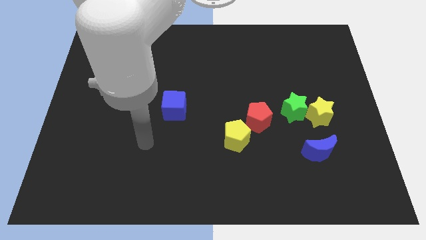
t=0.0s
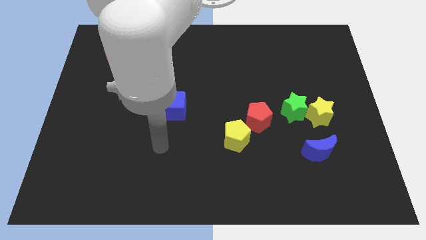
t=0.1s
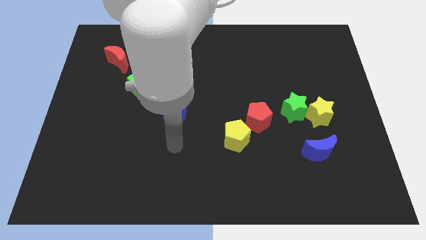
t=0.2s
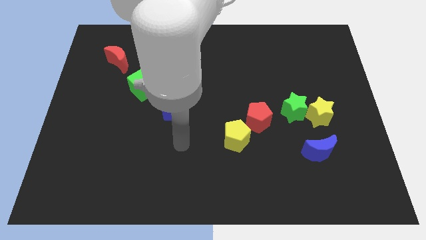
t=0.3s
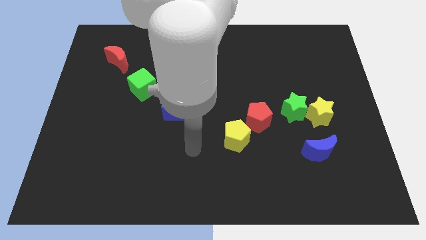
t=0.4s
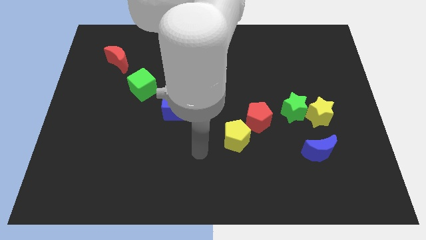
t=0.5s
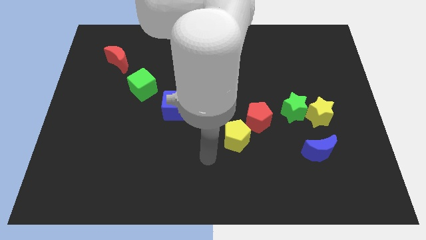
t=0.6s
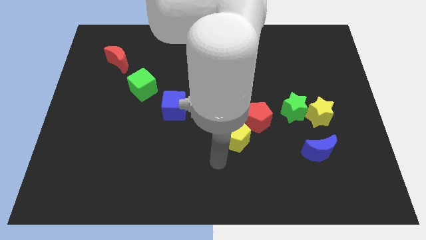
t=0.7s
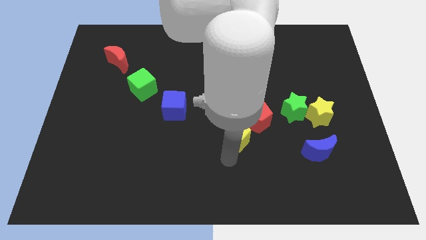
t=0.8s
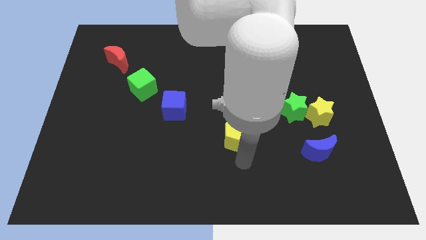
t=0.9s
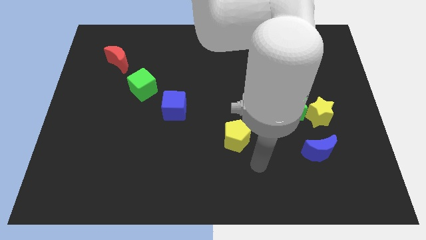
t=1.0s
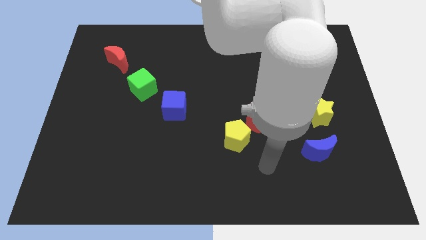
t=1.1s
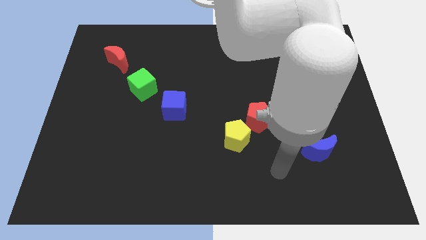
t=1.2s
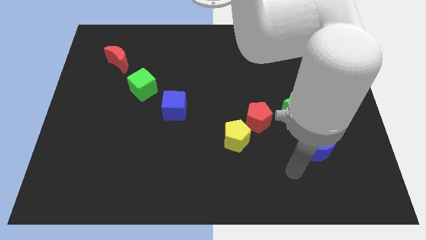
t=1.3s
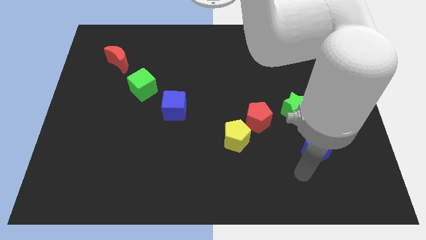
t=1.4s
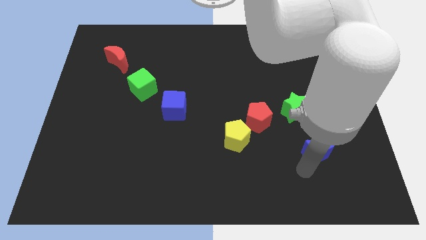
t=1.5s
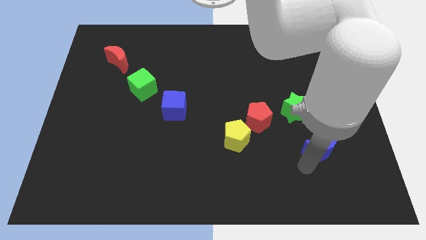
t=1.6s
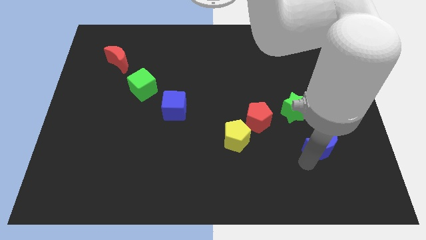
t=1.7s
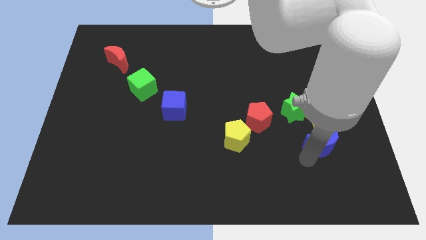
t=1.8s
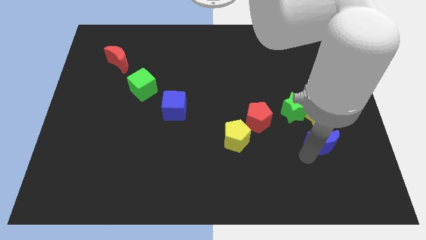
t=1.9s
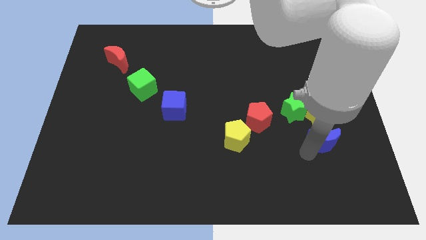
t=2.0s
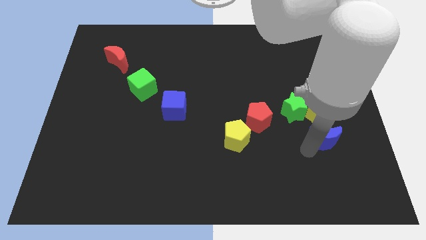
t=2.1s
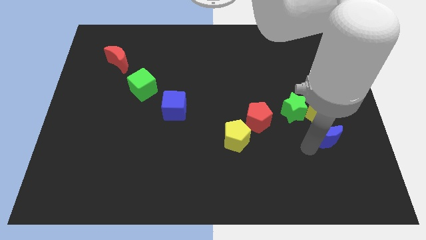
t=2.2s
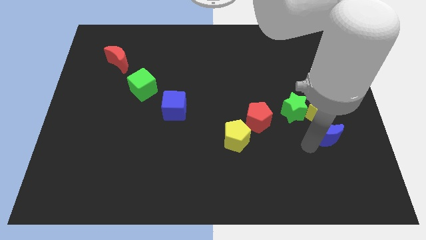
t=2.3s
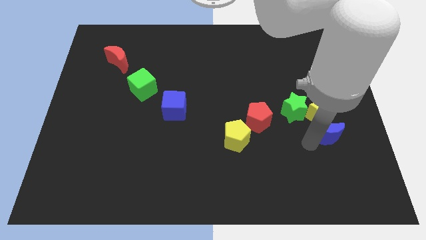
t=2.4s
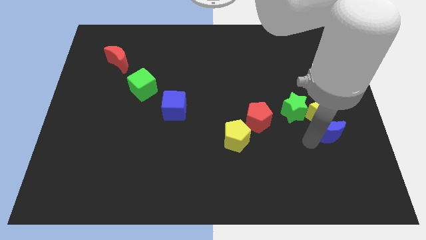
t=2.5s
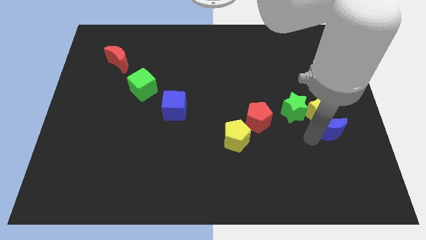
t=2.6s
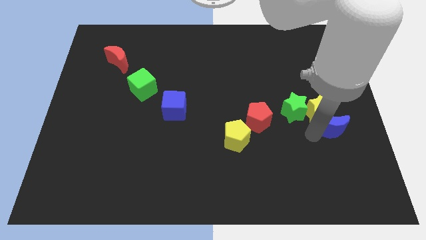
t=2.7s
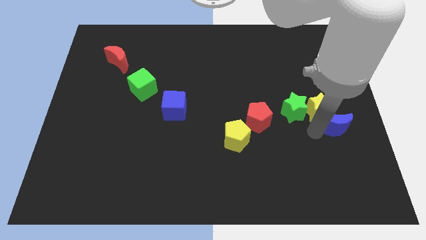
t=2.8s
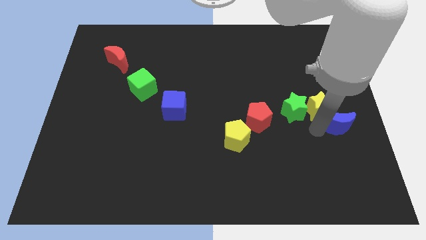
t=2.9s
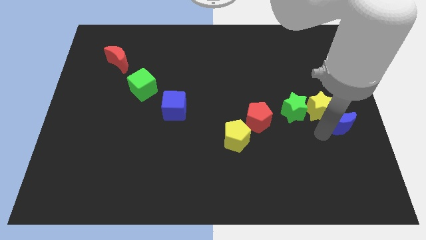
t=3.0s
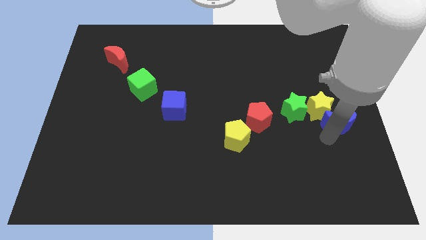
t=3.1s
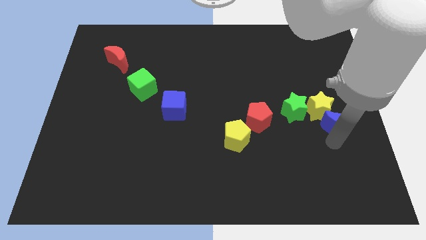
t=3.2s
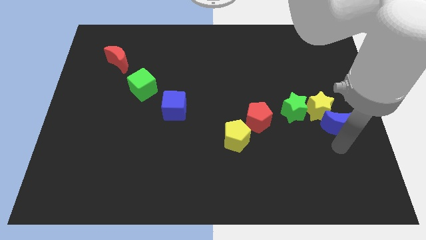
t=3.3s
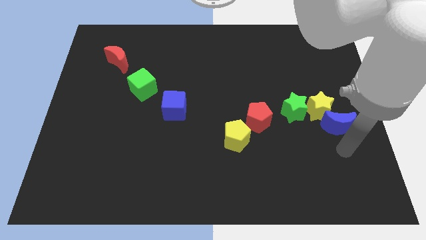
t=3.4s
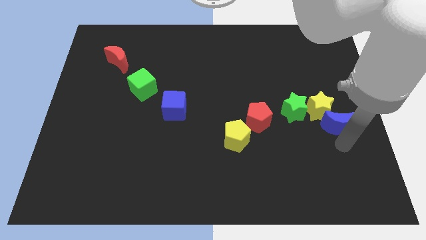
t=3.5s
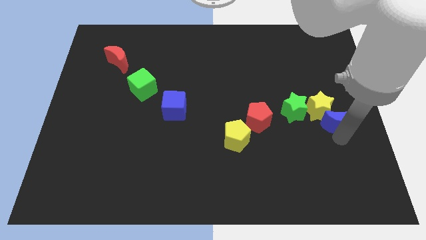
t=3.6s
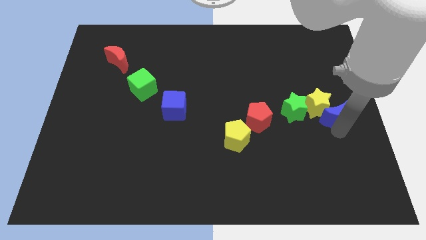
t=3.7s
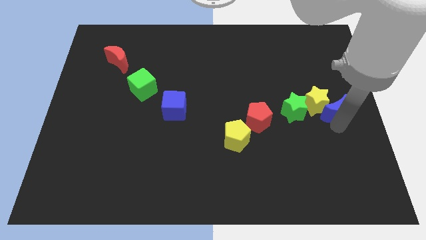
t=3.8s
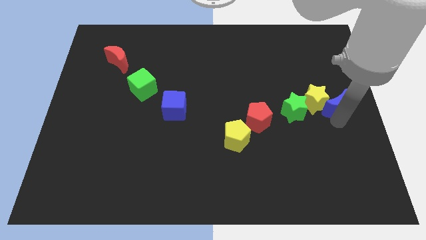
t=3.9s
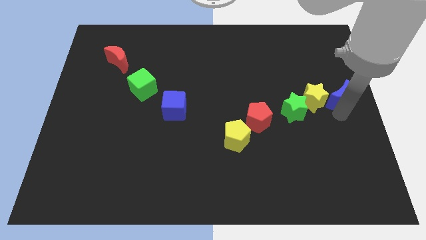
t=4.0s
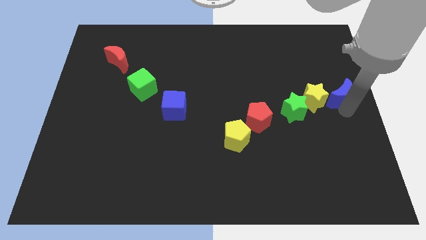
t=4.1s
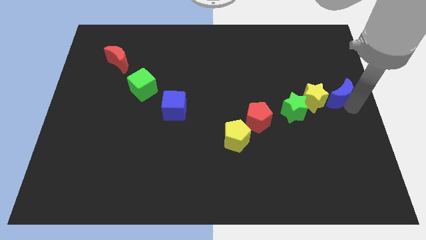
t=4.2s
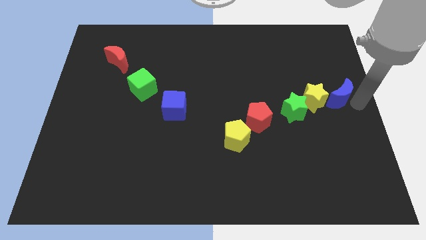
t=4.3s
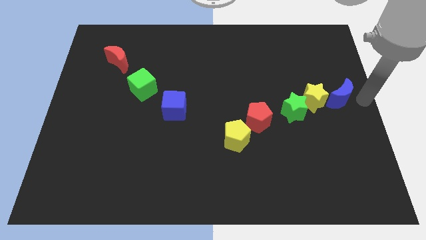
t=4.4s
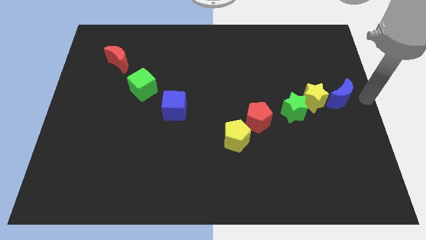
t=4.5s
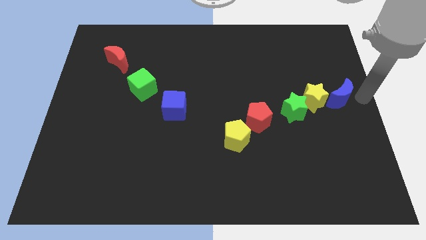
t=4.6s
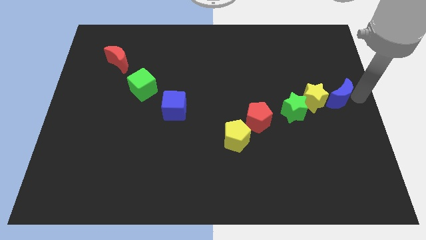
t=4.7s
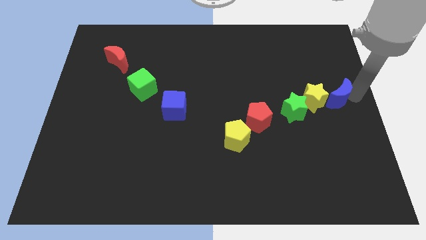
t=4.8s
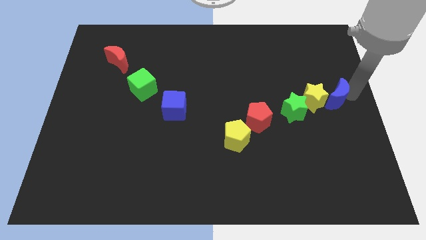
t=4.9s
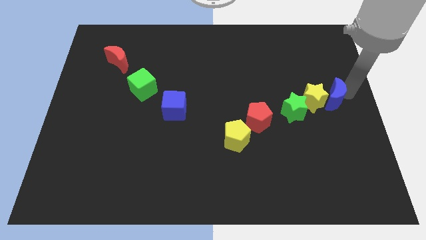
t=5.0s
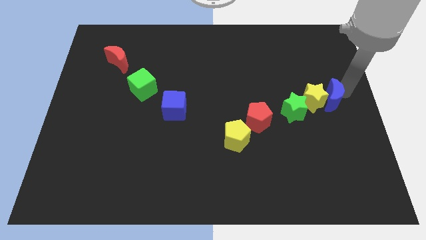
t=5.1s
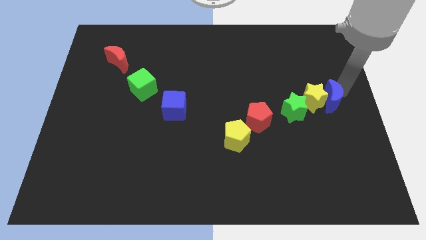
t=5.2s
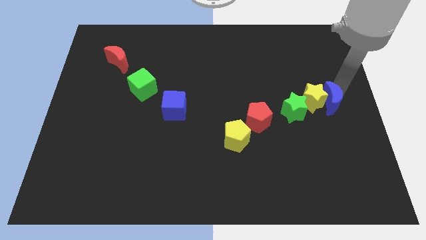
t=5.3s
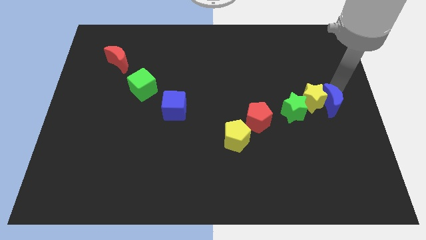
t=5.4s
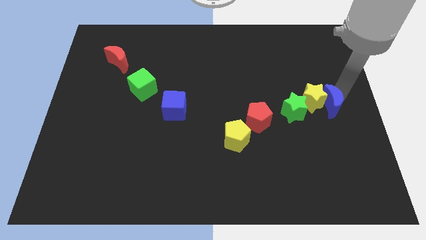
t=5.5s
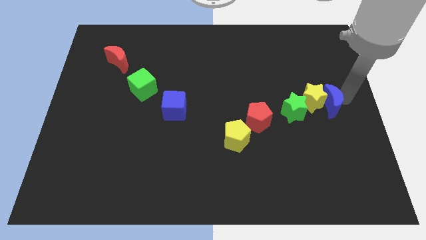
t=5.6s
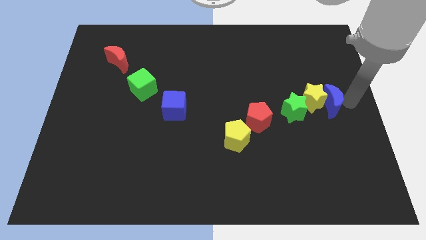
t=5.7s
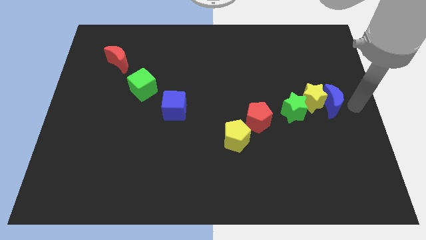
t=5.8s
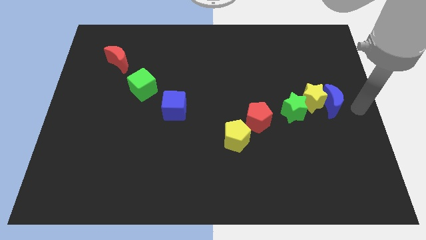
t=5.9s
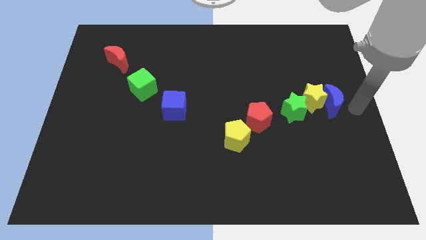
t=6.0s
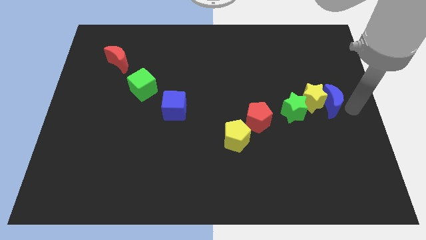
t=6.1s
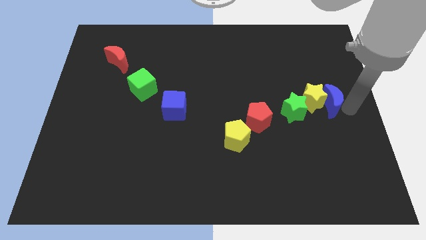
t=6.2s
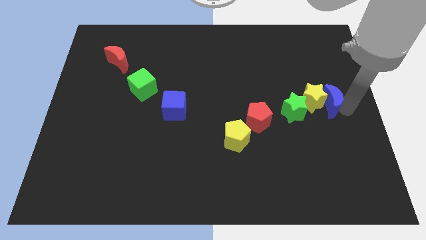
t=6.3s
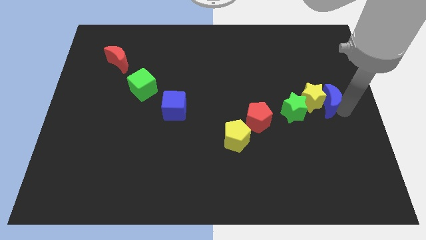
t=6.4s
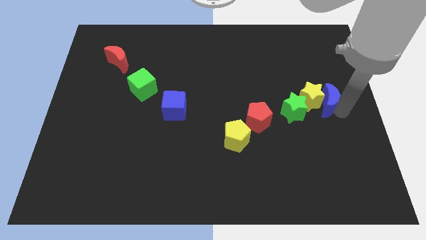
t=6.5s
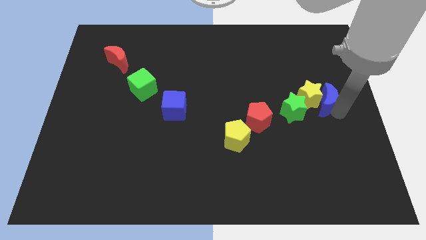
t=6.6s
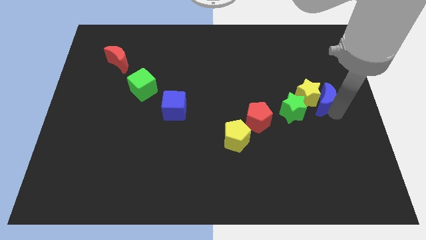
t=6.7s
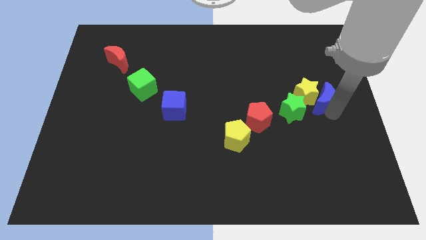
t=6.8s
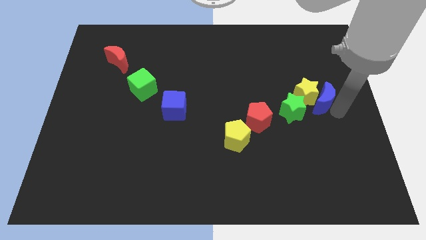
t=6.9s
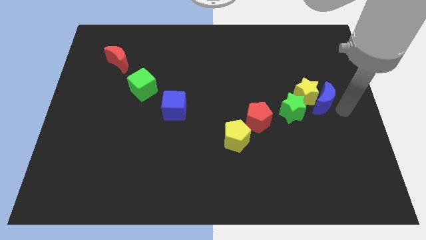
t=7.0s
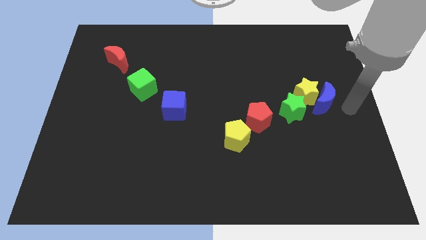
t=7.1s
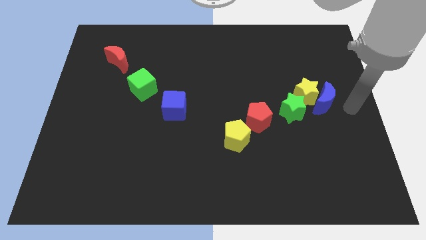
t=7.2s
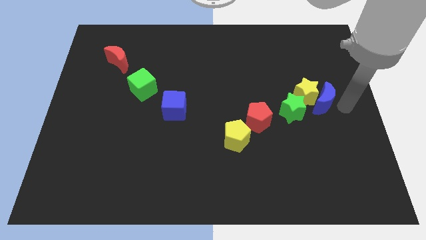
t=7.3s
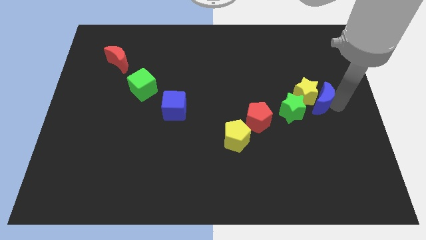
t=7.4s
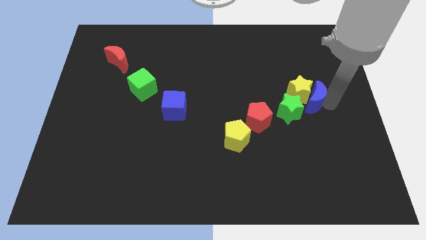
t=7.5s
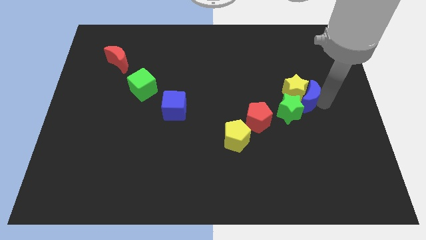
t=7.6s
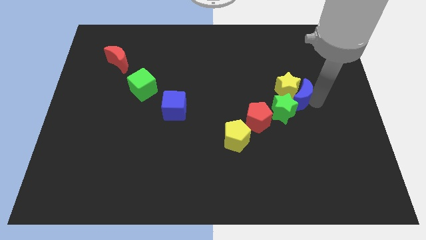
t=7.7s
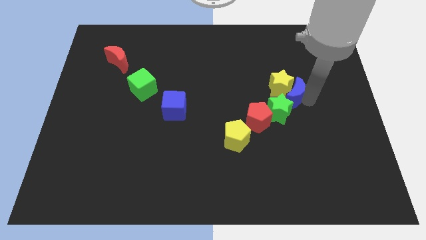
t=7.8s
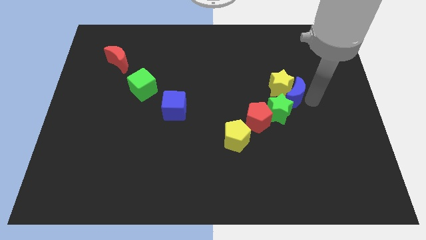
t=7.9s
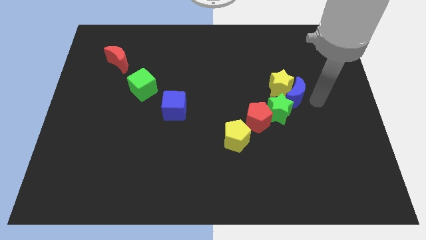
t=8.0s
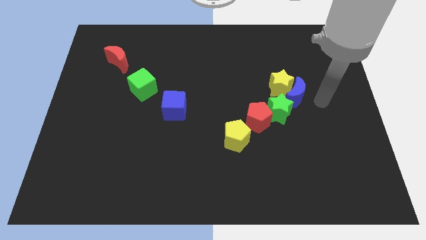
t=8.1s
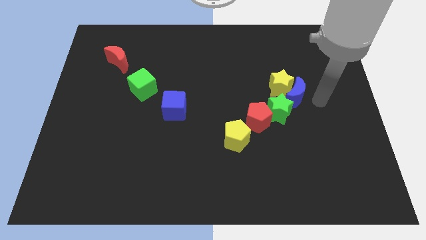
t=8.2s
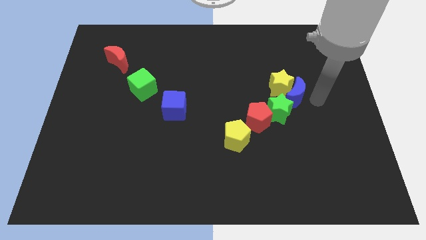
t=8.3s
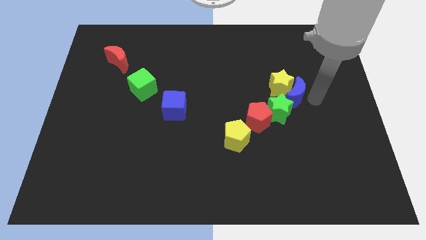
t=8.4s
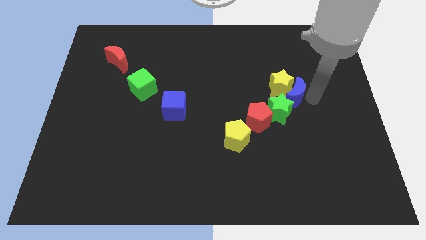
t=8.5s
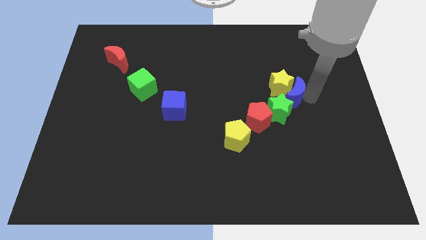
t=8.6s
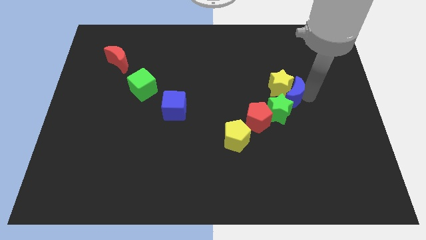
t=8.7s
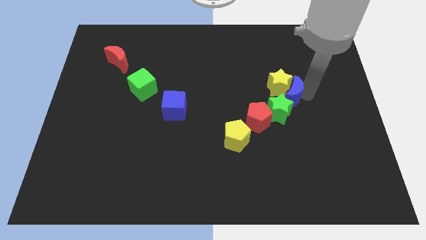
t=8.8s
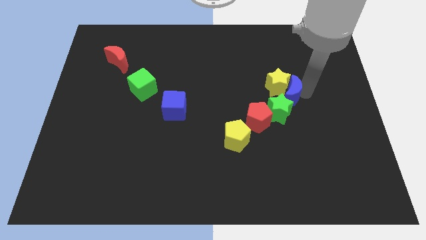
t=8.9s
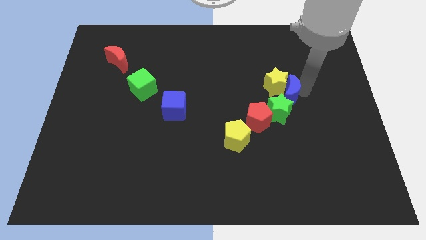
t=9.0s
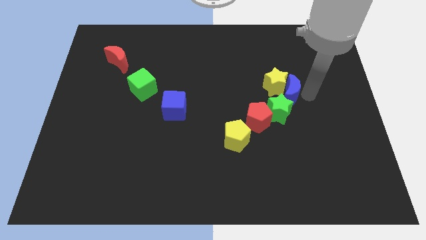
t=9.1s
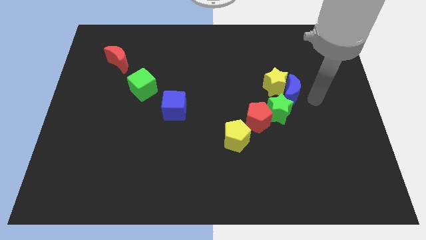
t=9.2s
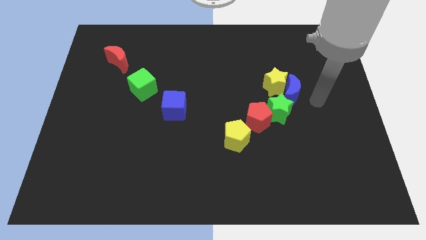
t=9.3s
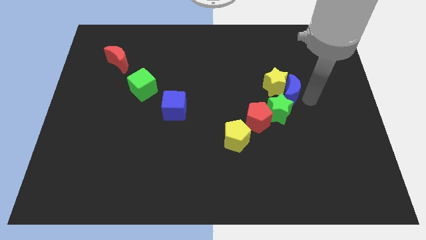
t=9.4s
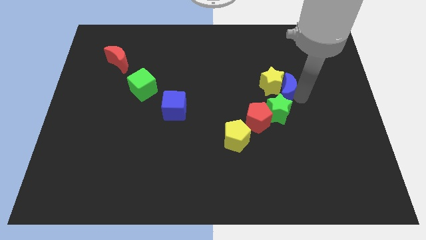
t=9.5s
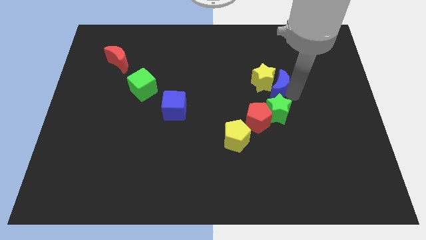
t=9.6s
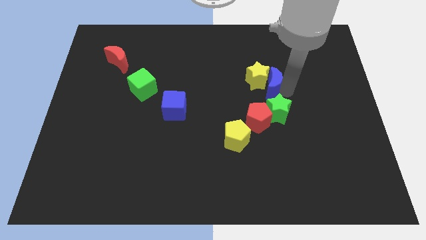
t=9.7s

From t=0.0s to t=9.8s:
move the blue moon to the top side of the red pentagon
